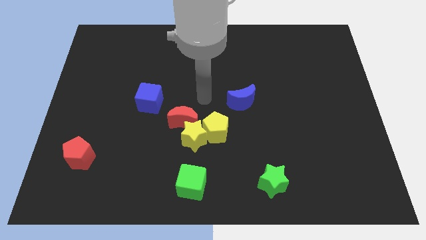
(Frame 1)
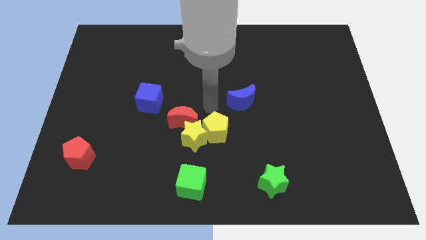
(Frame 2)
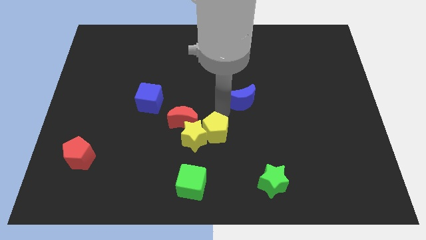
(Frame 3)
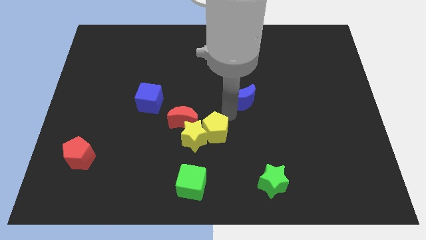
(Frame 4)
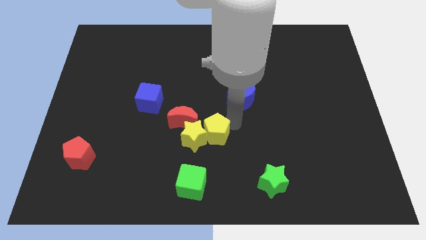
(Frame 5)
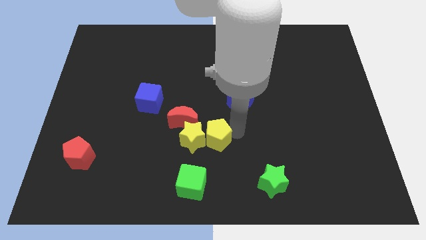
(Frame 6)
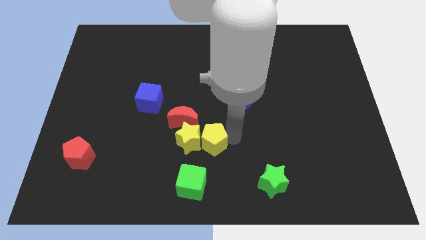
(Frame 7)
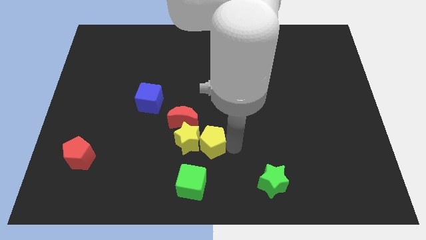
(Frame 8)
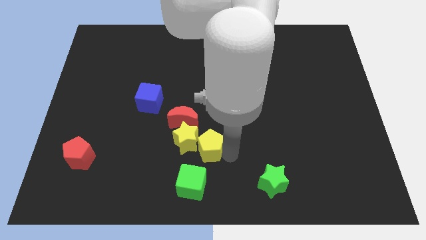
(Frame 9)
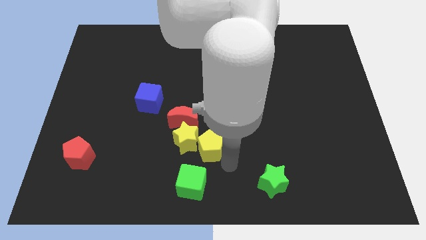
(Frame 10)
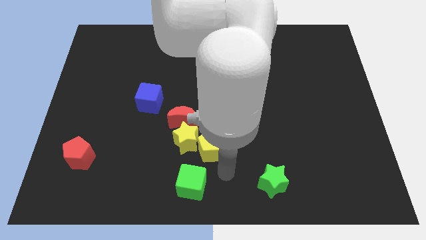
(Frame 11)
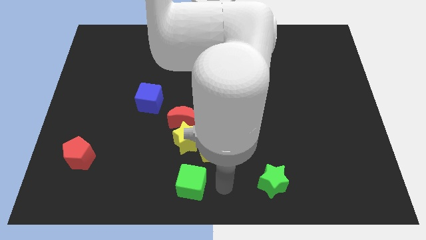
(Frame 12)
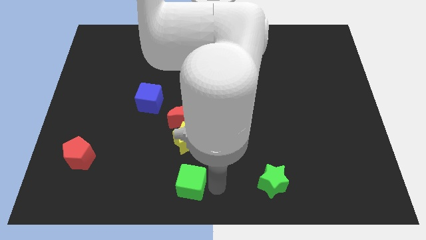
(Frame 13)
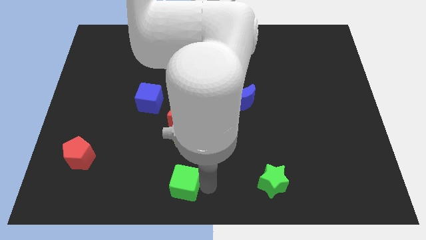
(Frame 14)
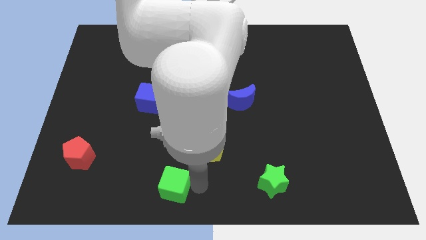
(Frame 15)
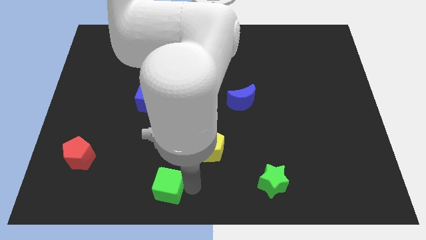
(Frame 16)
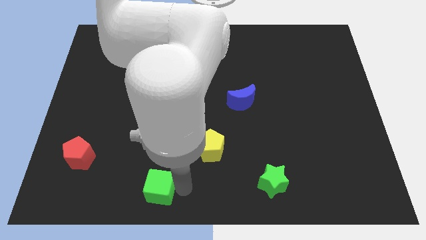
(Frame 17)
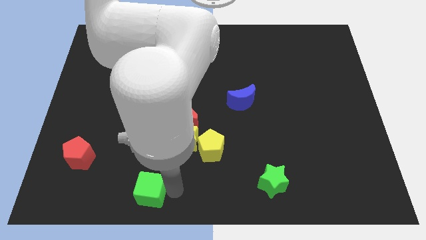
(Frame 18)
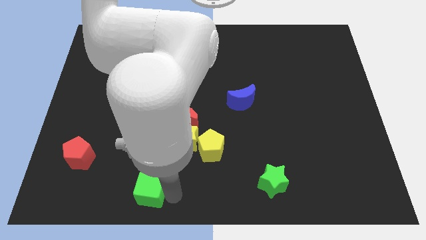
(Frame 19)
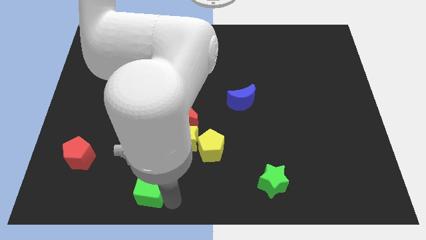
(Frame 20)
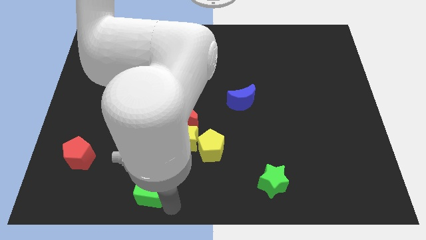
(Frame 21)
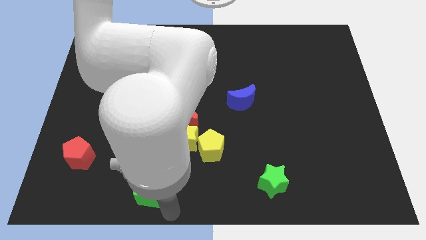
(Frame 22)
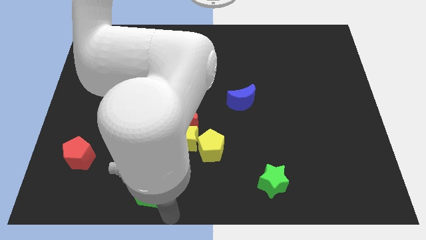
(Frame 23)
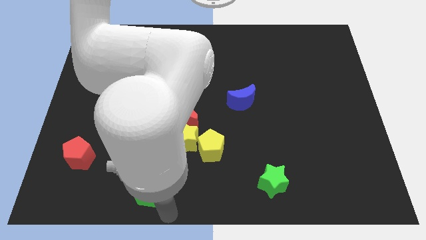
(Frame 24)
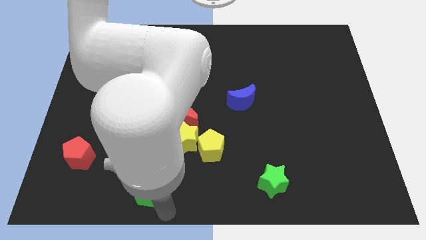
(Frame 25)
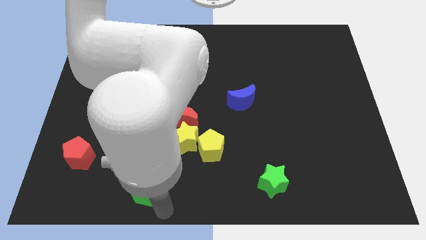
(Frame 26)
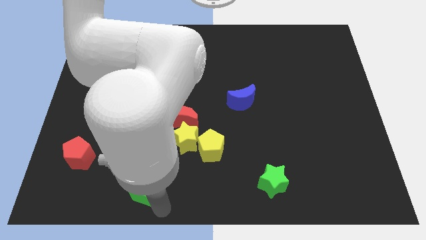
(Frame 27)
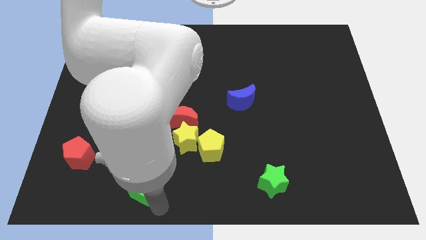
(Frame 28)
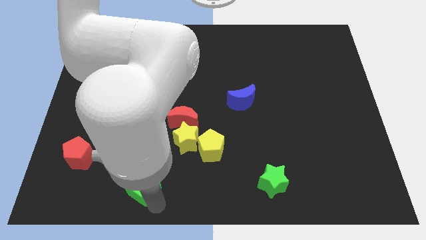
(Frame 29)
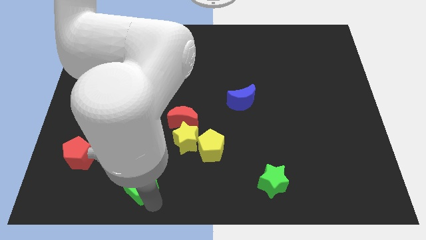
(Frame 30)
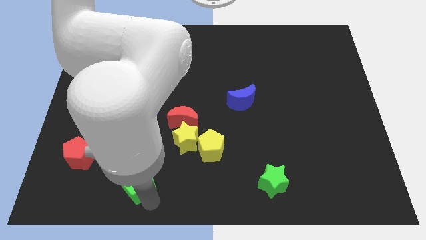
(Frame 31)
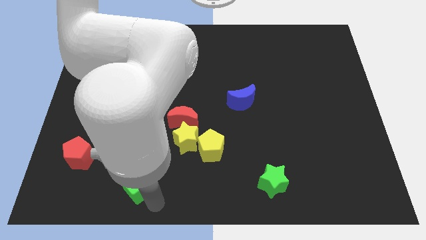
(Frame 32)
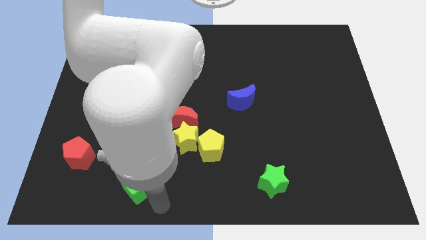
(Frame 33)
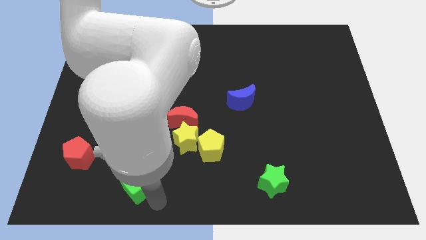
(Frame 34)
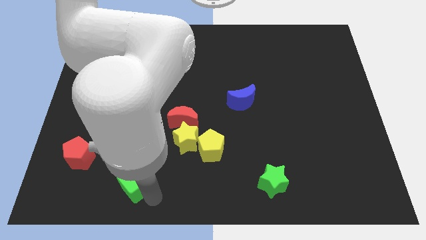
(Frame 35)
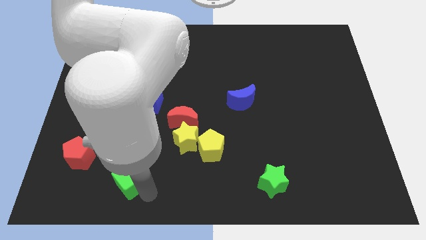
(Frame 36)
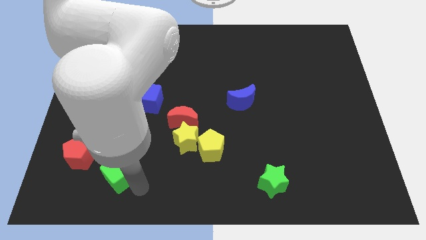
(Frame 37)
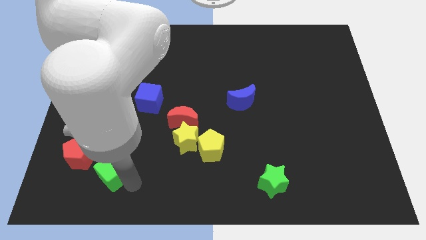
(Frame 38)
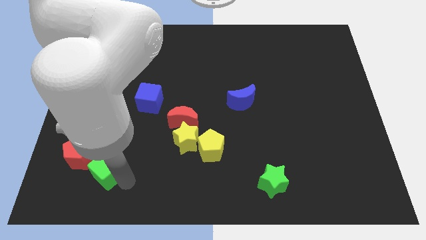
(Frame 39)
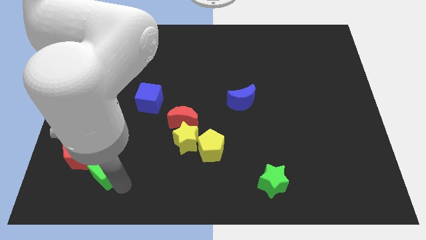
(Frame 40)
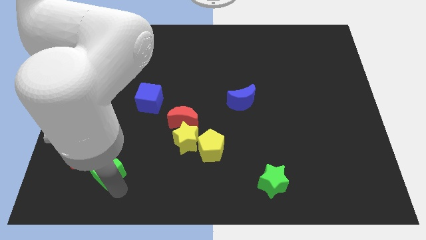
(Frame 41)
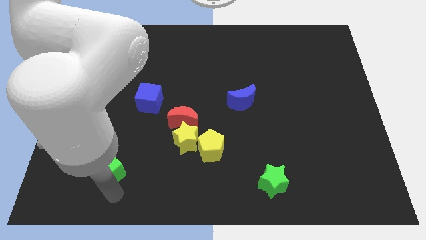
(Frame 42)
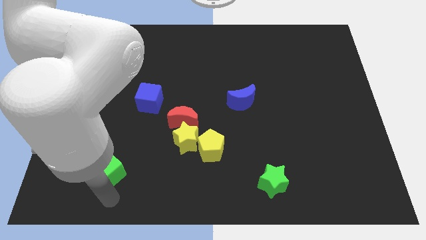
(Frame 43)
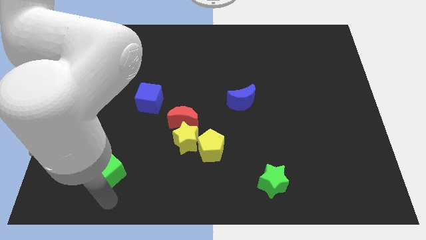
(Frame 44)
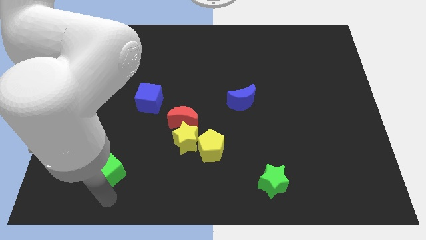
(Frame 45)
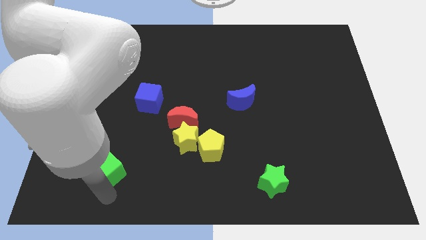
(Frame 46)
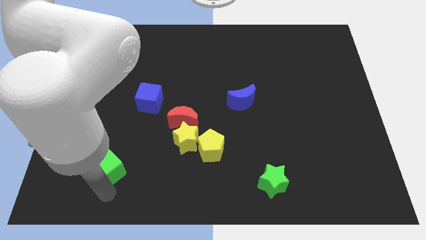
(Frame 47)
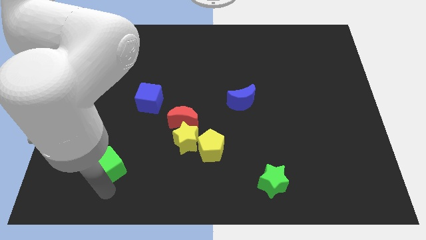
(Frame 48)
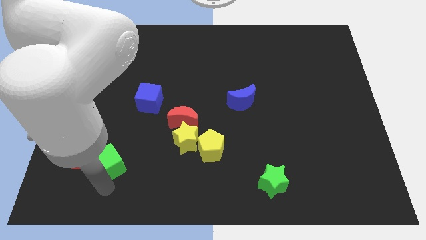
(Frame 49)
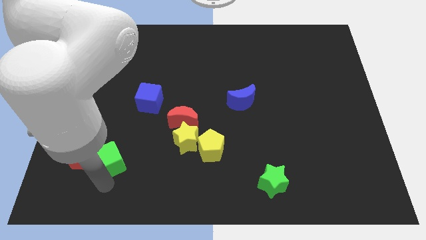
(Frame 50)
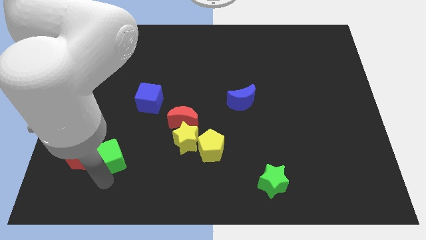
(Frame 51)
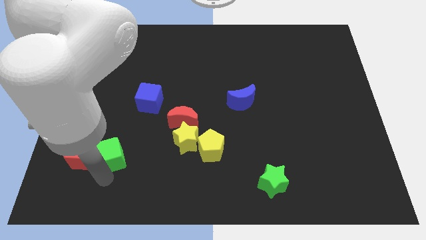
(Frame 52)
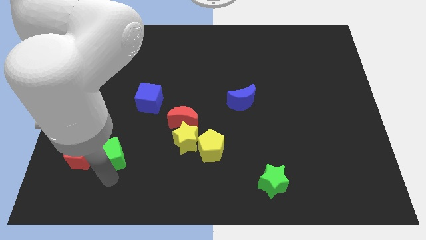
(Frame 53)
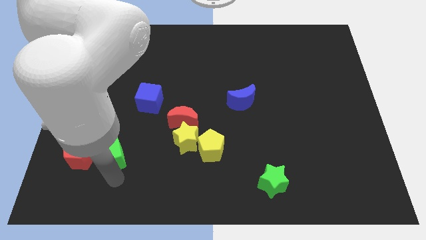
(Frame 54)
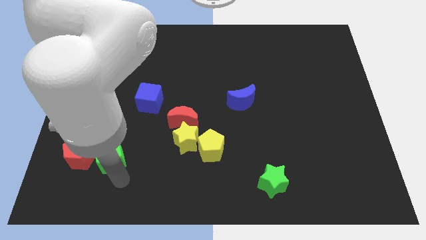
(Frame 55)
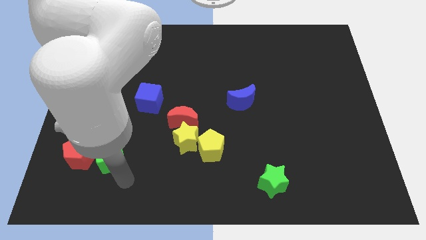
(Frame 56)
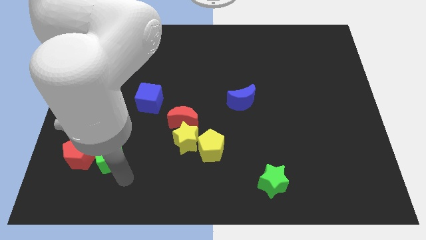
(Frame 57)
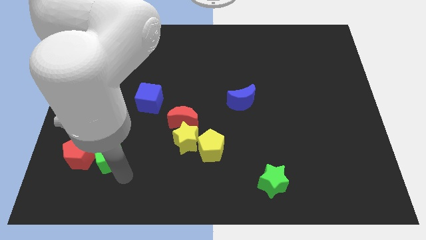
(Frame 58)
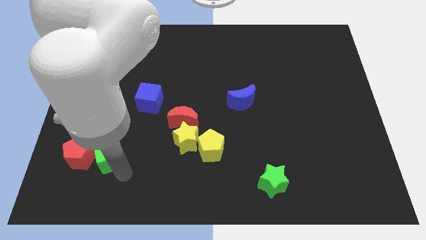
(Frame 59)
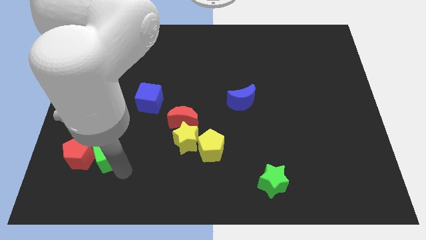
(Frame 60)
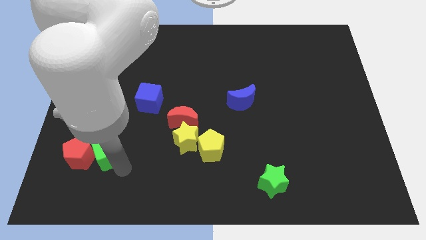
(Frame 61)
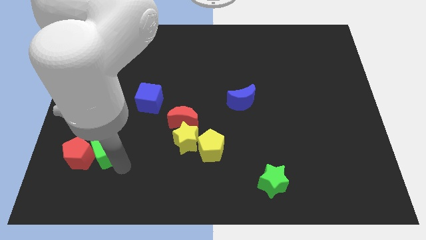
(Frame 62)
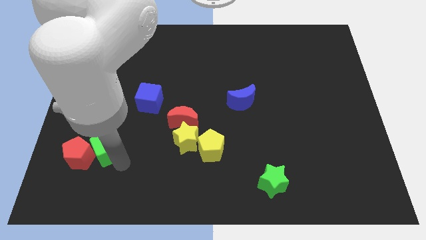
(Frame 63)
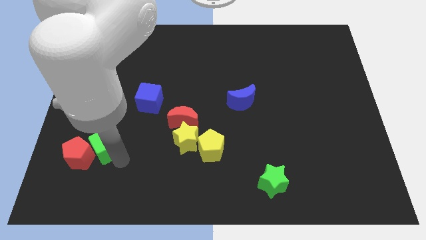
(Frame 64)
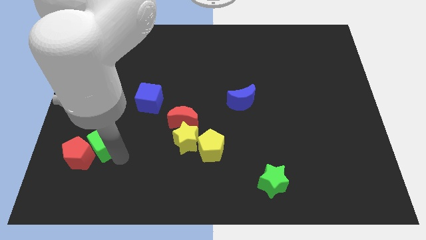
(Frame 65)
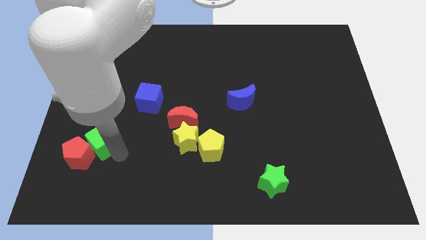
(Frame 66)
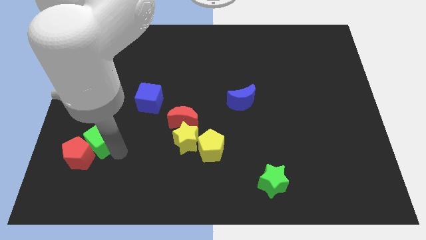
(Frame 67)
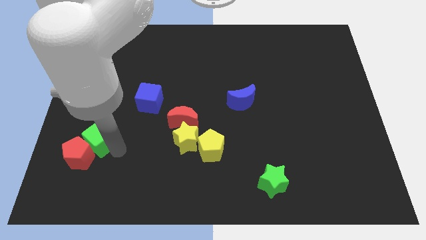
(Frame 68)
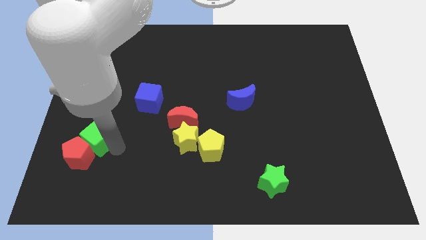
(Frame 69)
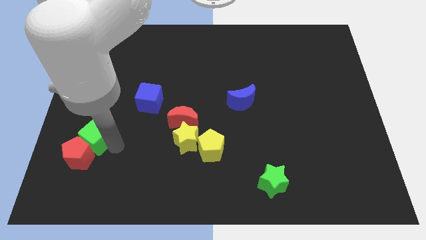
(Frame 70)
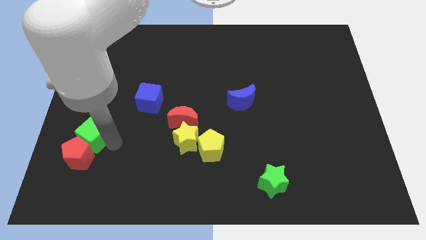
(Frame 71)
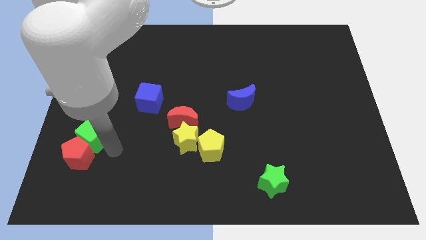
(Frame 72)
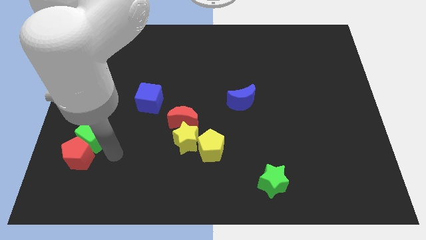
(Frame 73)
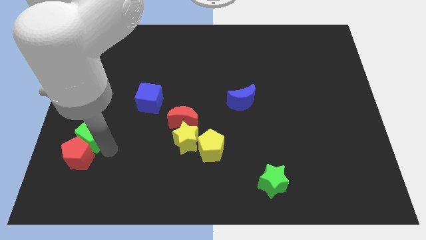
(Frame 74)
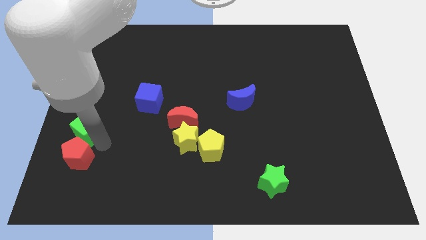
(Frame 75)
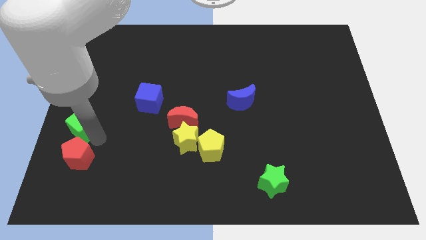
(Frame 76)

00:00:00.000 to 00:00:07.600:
move the green cube to the left side
